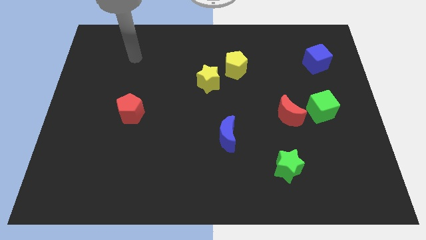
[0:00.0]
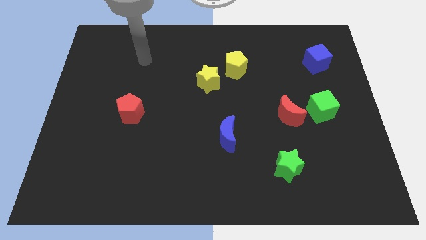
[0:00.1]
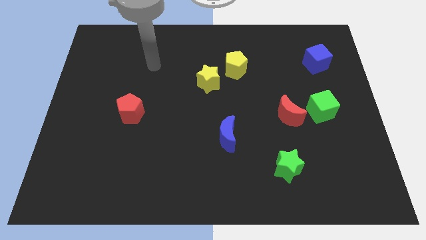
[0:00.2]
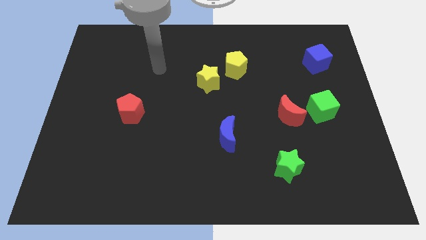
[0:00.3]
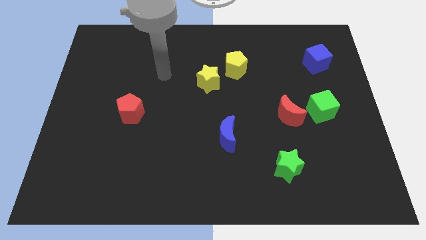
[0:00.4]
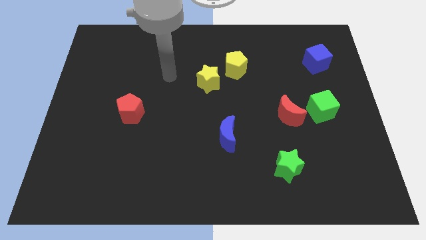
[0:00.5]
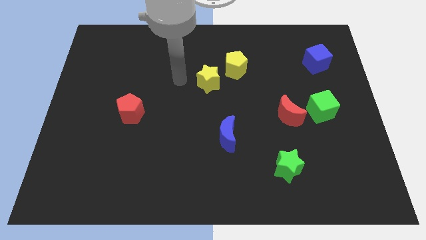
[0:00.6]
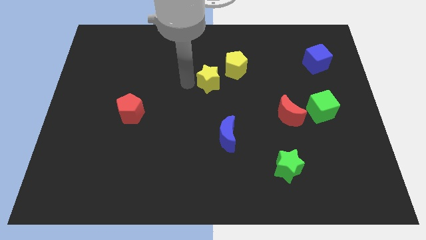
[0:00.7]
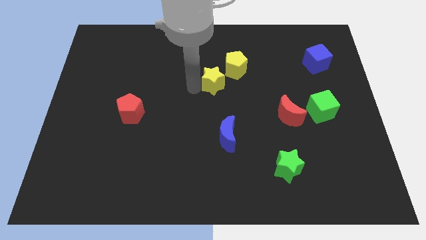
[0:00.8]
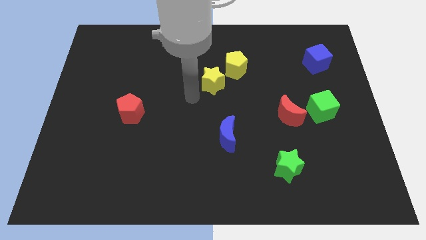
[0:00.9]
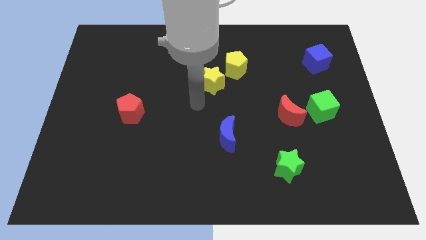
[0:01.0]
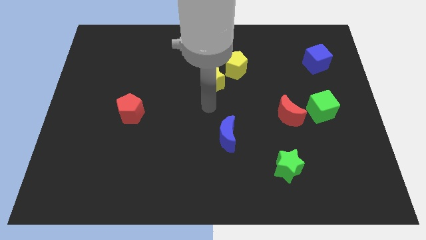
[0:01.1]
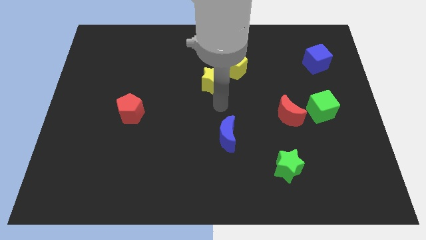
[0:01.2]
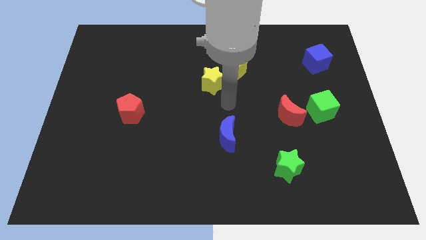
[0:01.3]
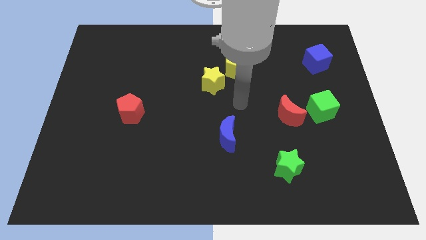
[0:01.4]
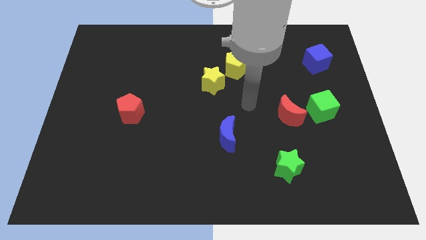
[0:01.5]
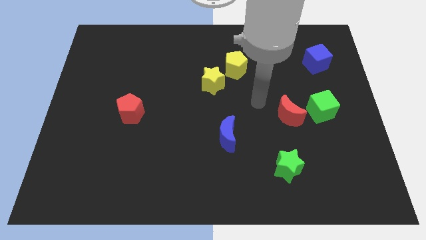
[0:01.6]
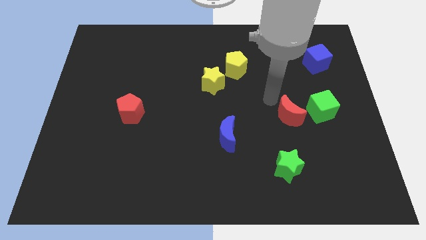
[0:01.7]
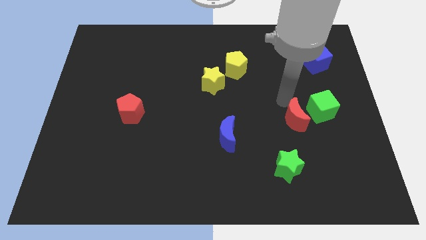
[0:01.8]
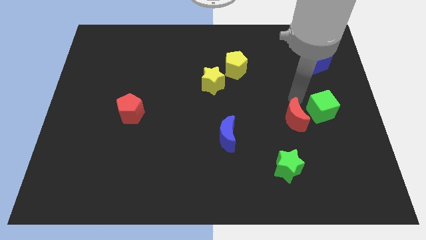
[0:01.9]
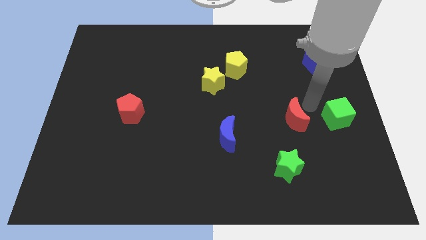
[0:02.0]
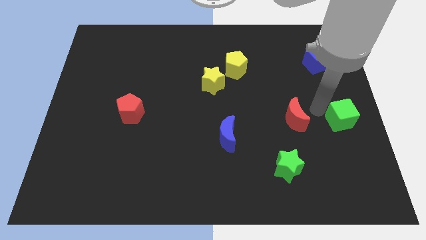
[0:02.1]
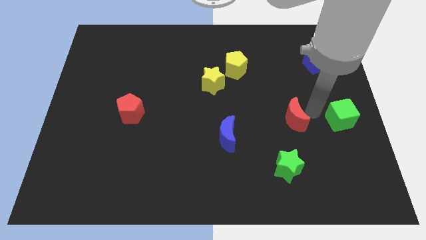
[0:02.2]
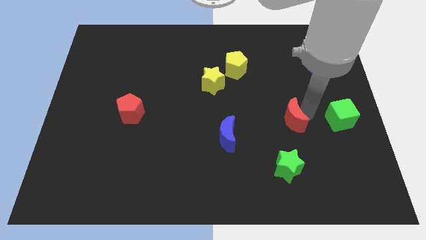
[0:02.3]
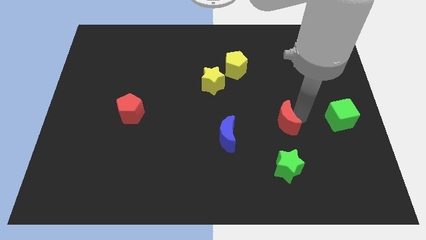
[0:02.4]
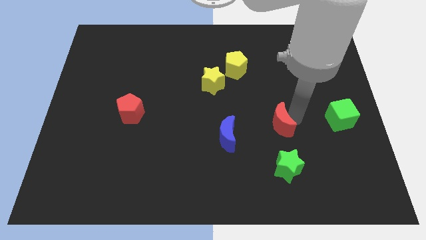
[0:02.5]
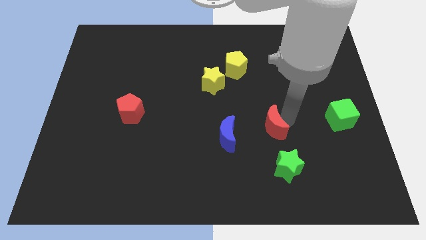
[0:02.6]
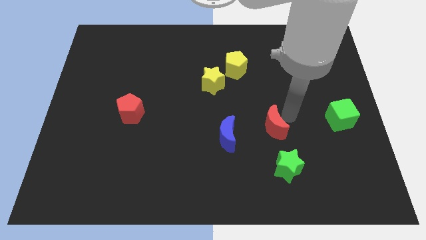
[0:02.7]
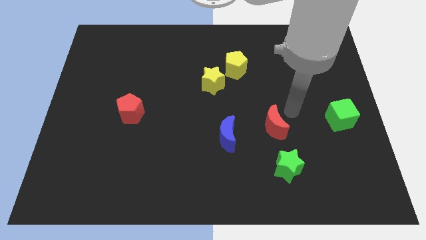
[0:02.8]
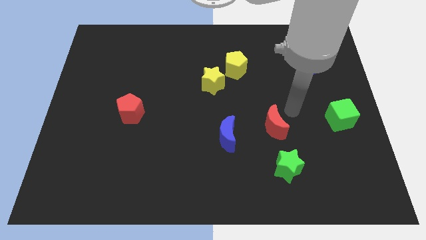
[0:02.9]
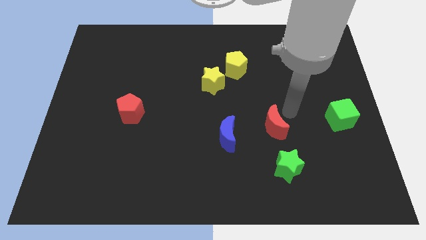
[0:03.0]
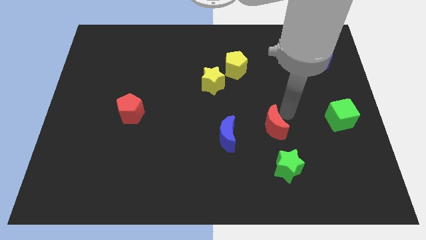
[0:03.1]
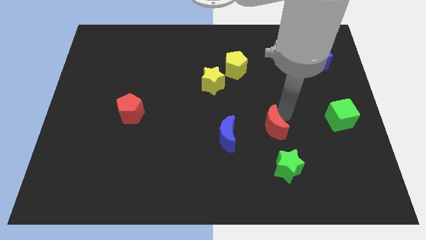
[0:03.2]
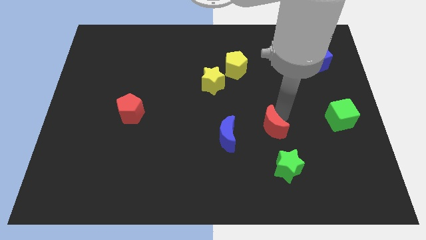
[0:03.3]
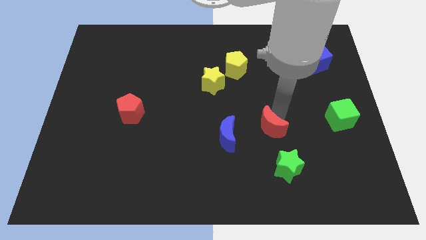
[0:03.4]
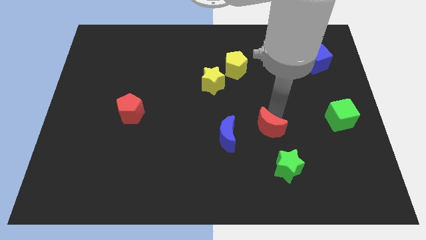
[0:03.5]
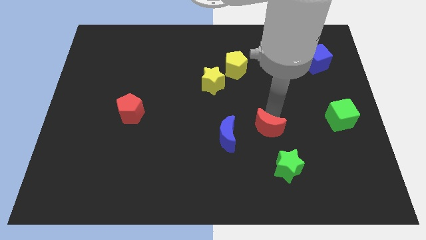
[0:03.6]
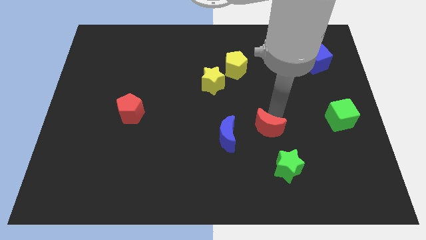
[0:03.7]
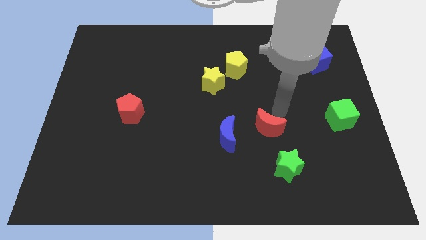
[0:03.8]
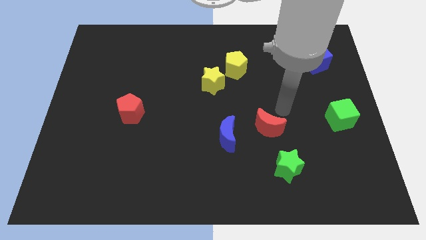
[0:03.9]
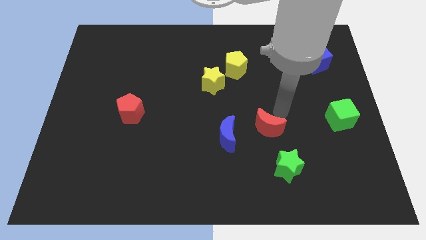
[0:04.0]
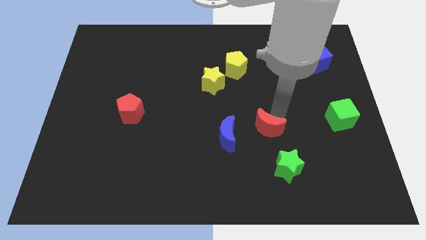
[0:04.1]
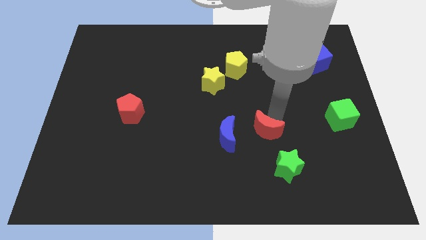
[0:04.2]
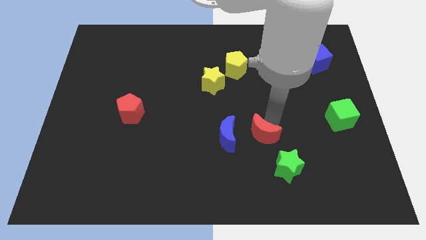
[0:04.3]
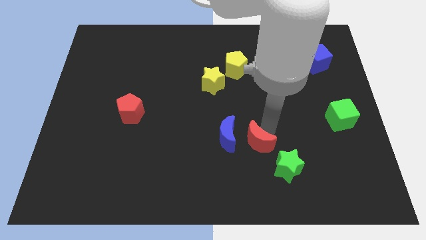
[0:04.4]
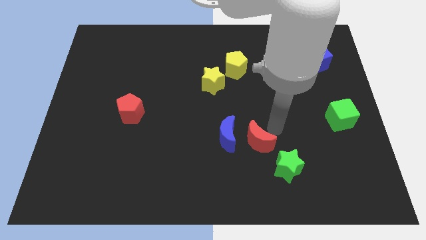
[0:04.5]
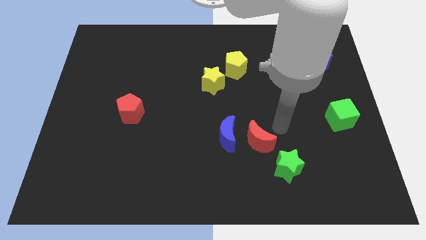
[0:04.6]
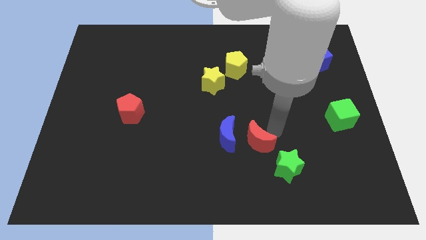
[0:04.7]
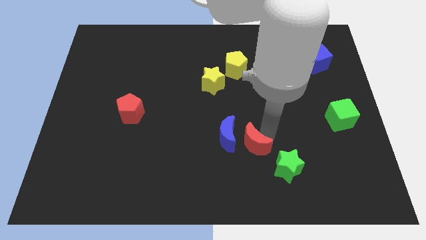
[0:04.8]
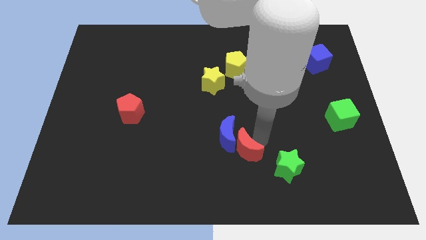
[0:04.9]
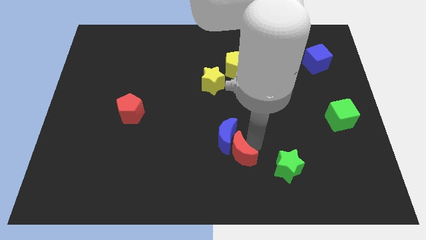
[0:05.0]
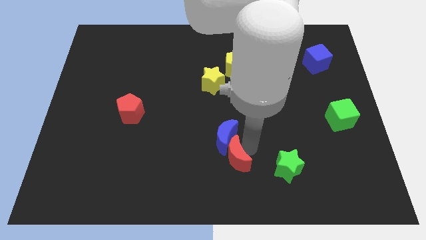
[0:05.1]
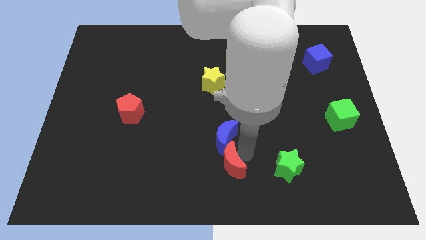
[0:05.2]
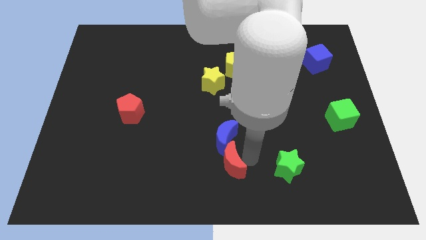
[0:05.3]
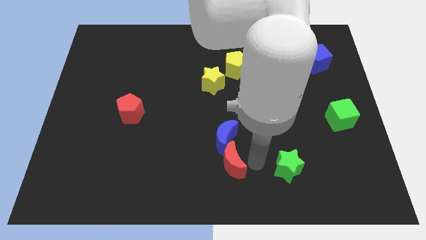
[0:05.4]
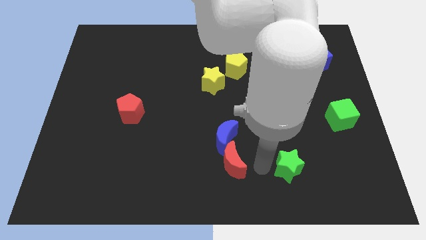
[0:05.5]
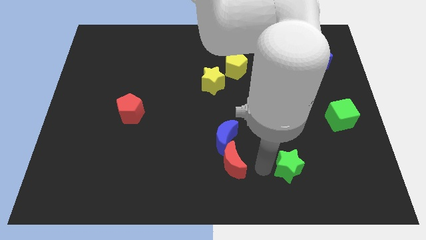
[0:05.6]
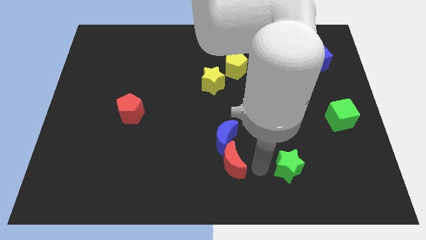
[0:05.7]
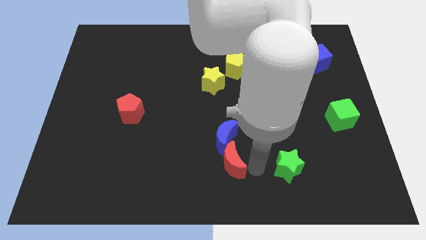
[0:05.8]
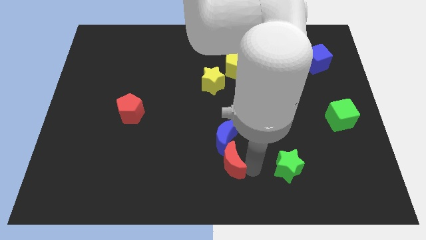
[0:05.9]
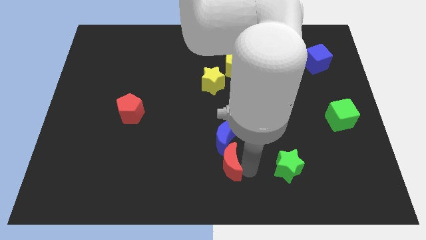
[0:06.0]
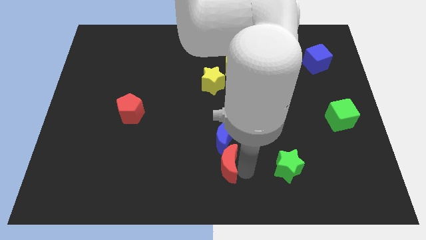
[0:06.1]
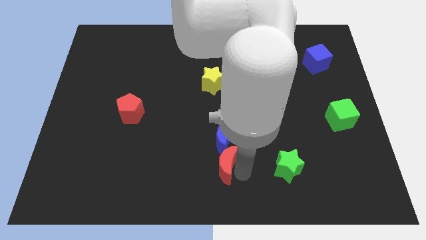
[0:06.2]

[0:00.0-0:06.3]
push the red moon to the bottom left of the blue moon
